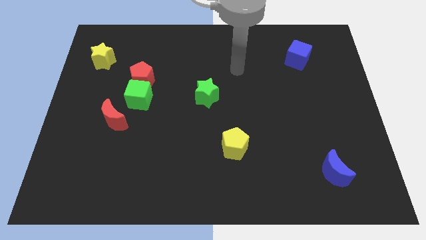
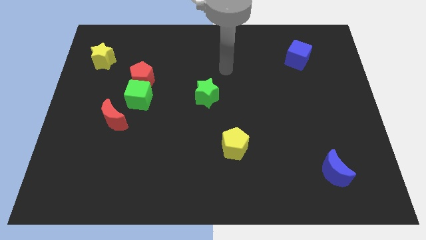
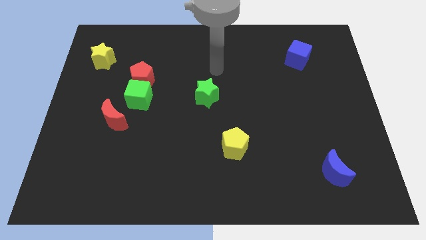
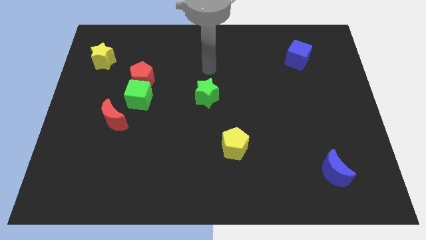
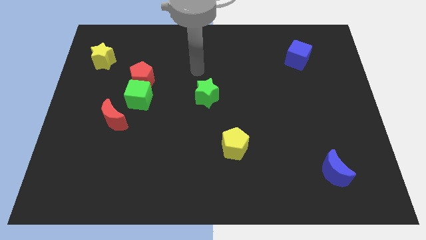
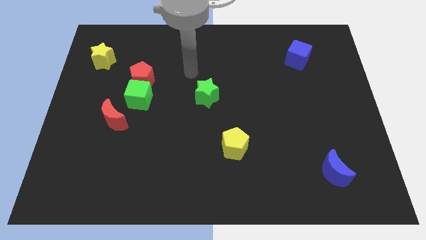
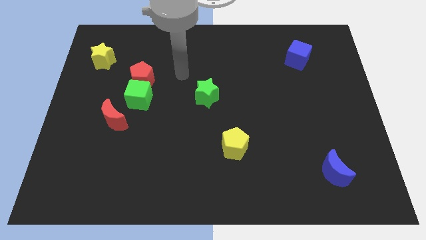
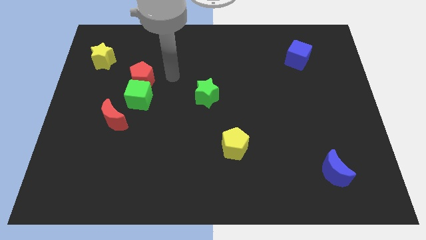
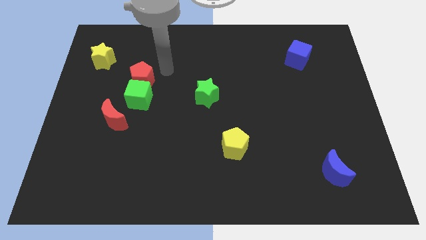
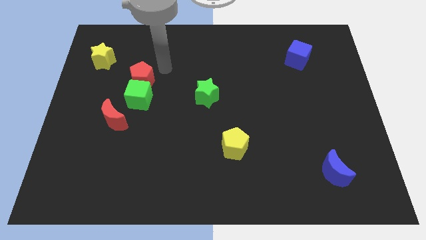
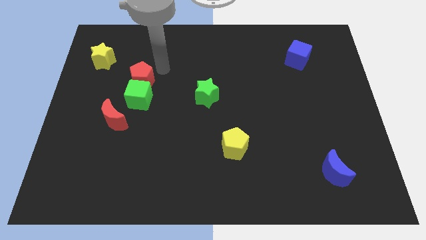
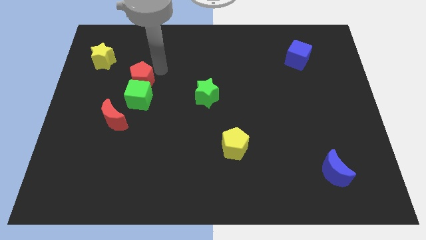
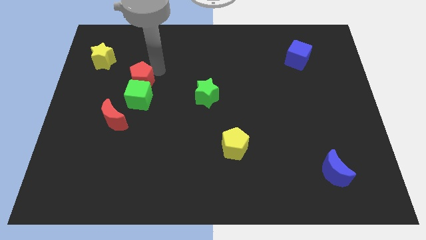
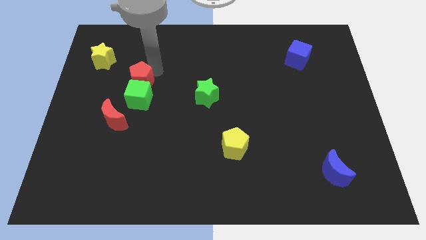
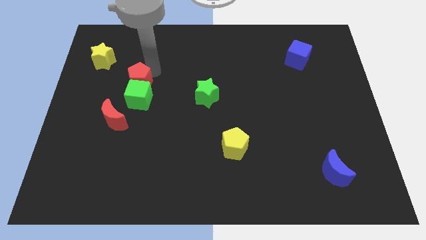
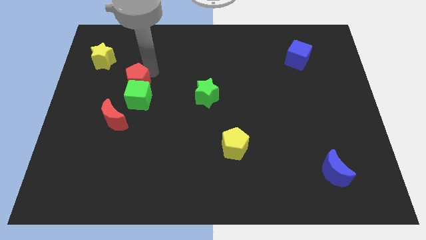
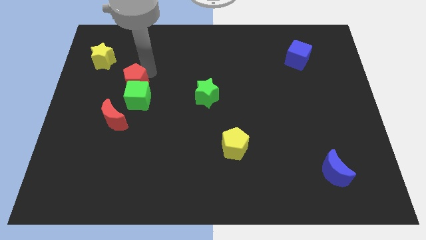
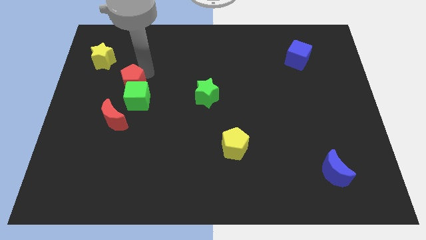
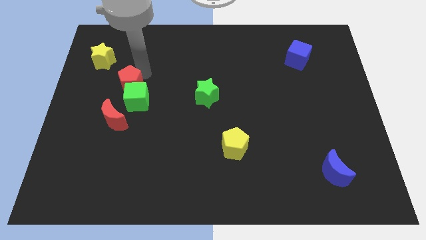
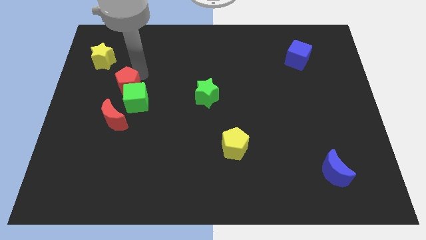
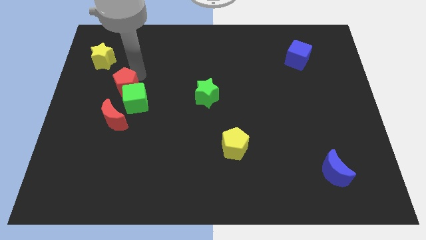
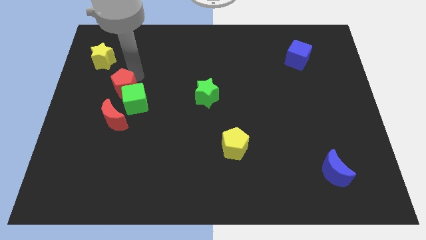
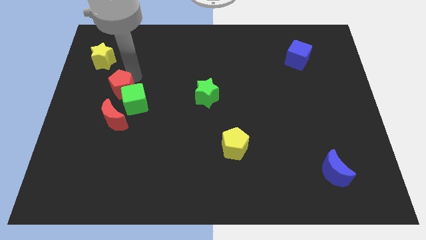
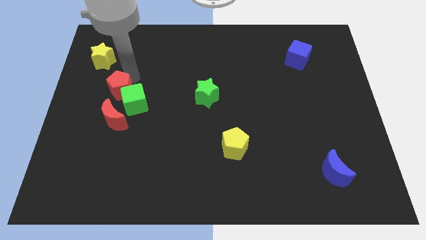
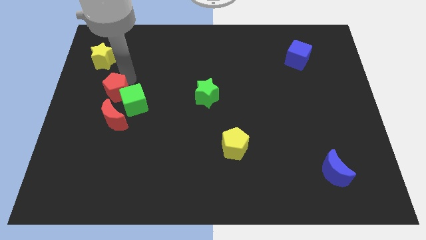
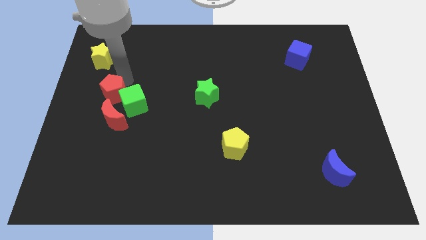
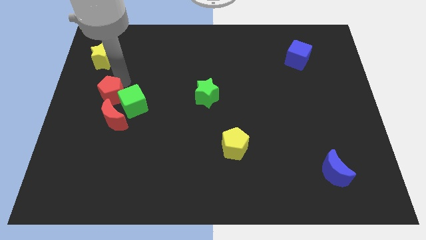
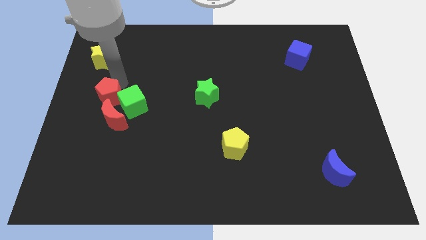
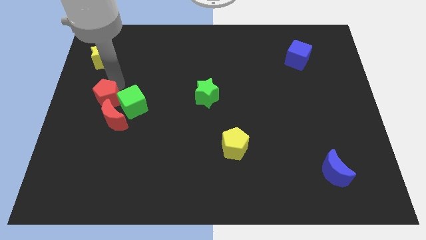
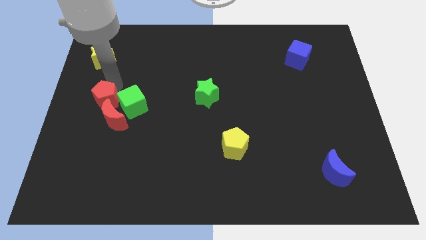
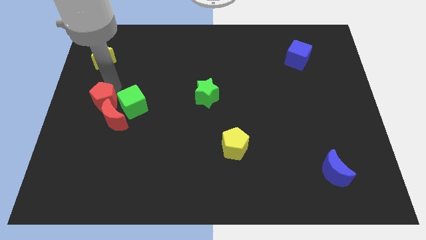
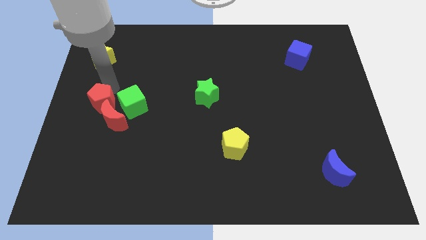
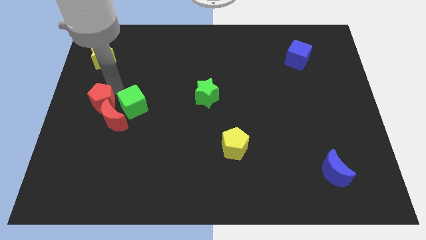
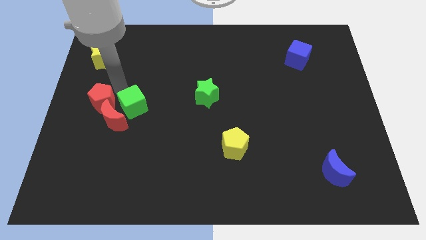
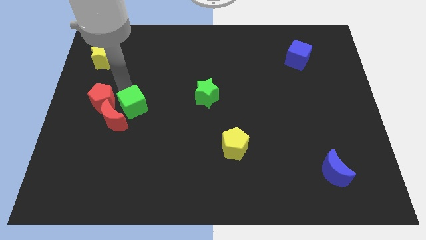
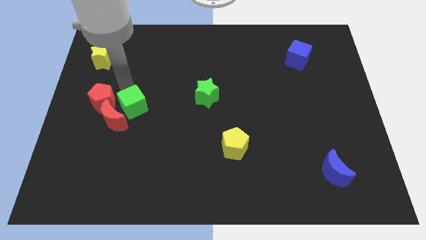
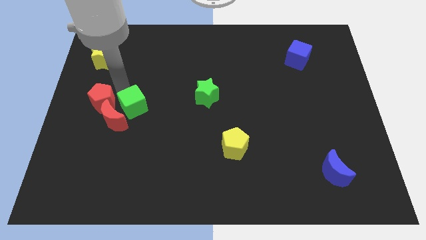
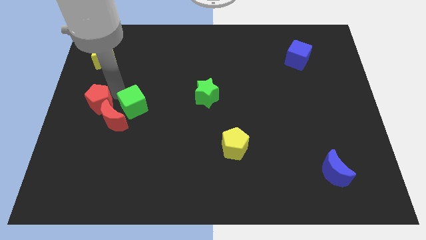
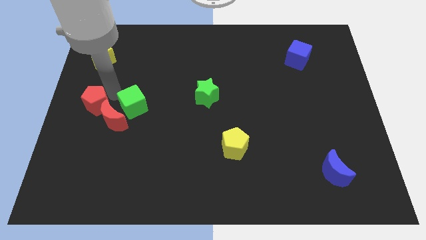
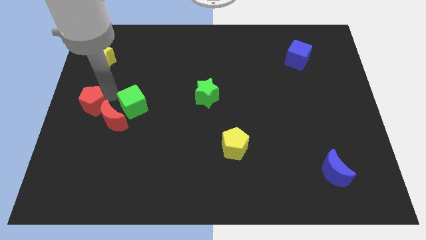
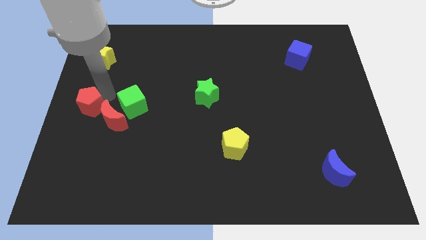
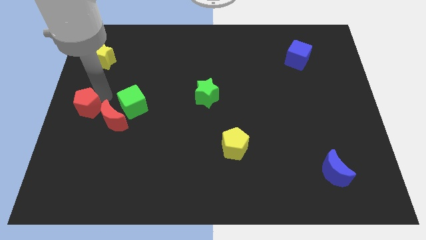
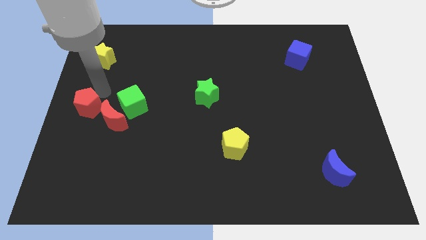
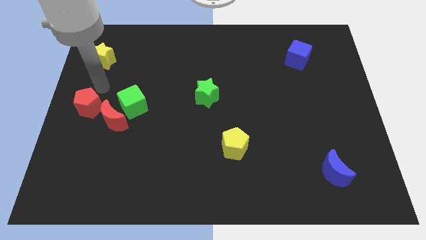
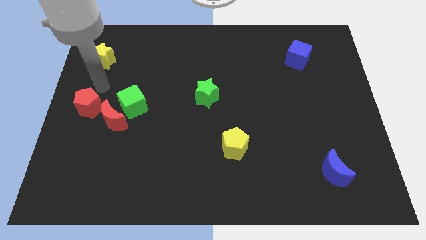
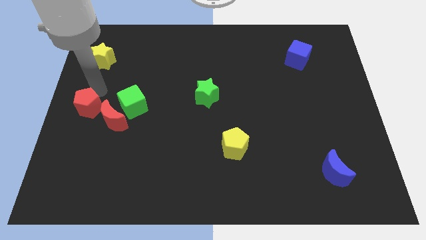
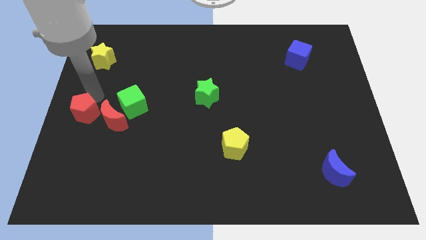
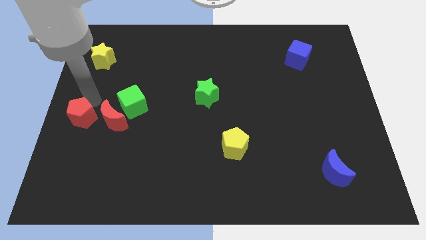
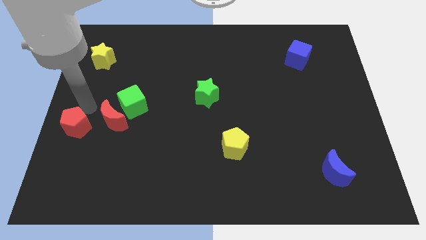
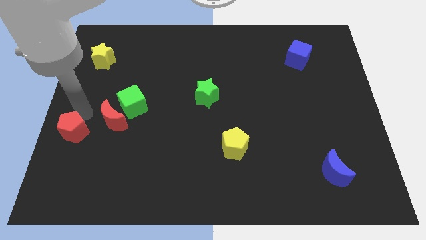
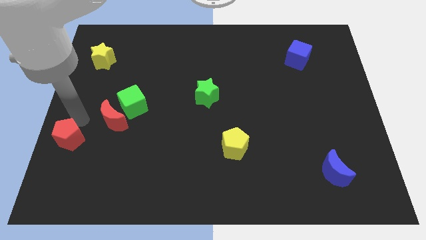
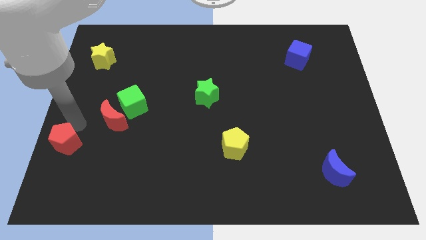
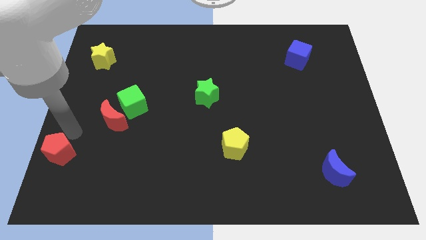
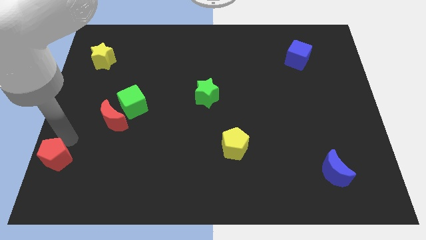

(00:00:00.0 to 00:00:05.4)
move the red pentagon to the bottom left of the board
